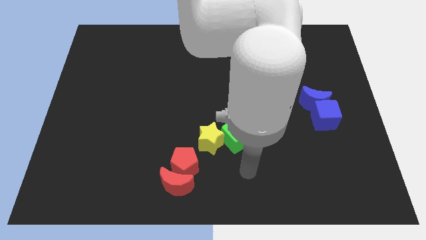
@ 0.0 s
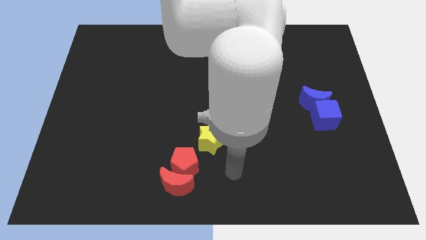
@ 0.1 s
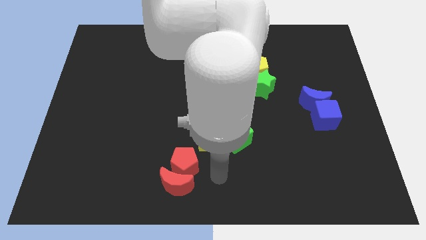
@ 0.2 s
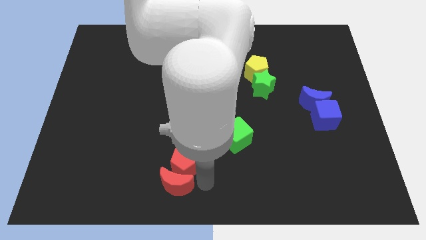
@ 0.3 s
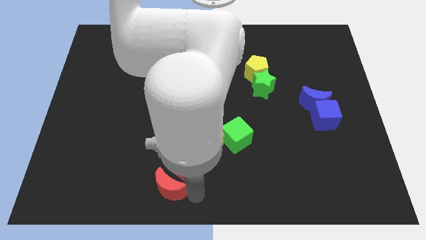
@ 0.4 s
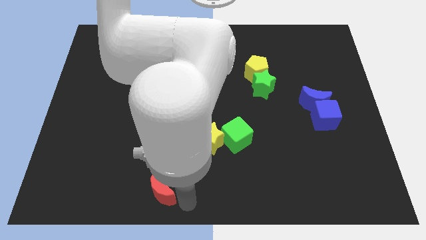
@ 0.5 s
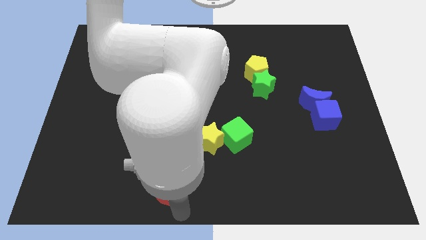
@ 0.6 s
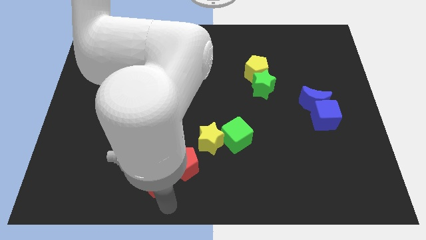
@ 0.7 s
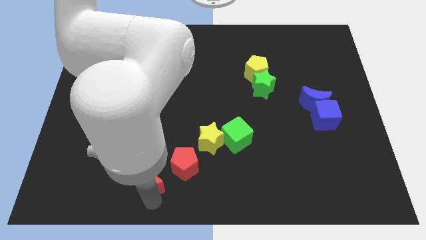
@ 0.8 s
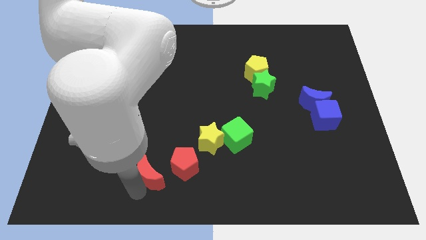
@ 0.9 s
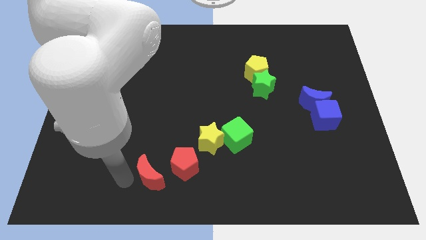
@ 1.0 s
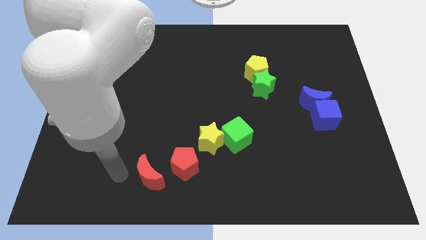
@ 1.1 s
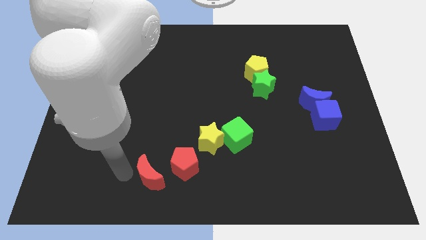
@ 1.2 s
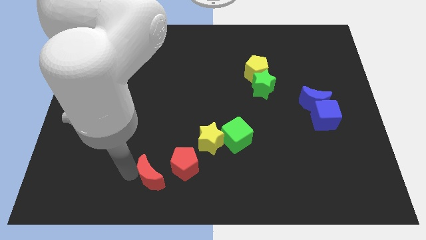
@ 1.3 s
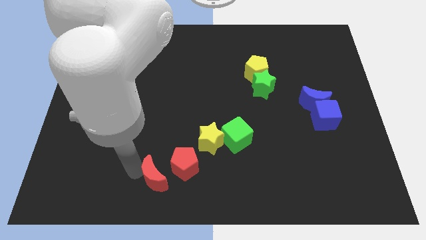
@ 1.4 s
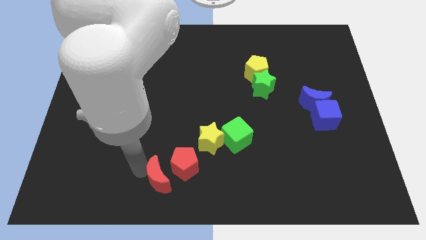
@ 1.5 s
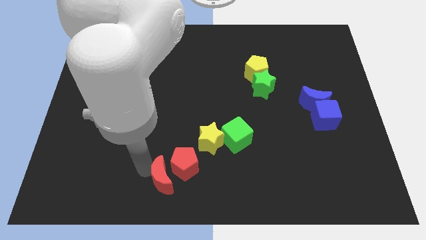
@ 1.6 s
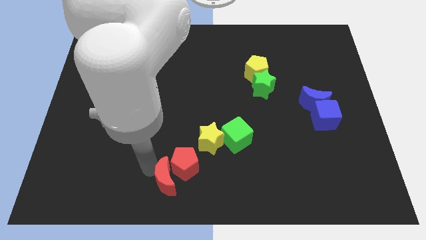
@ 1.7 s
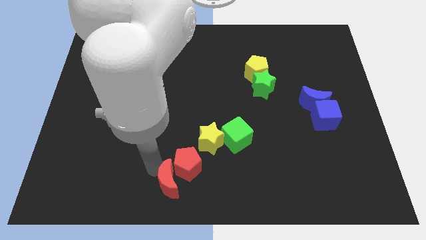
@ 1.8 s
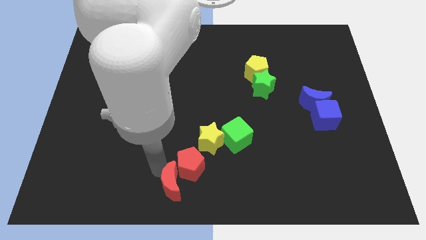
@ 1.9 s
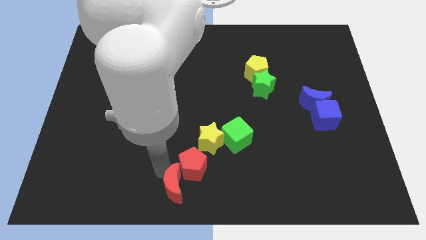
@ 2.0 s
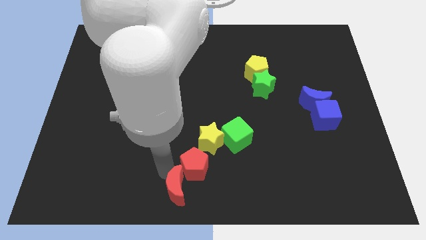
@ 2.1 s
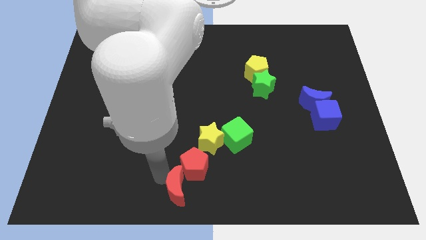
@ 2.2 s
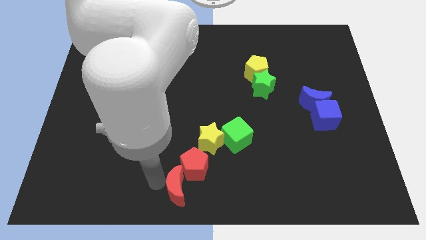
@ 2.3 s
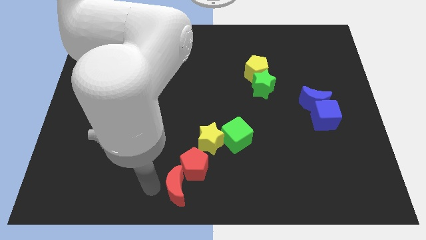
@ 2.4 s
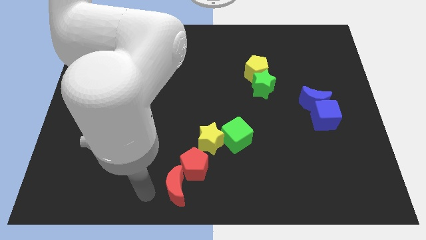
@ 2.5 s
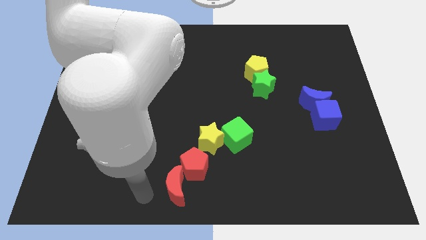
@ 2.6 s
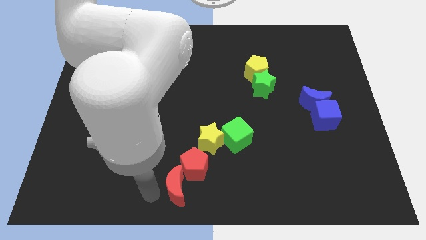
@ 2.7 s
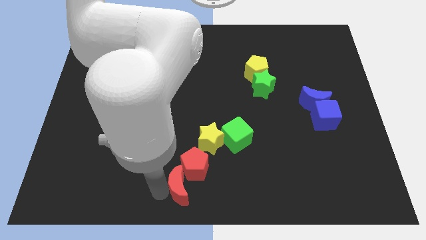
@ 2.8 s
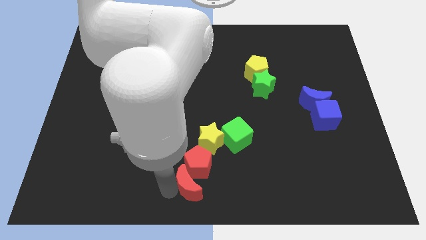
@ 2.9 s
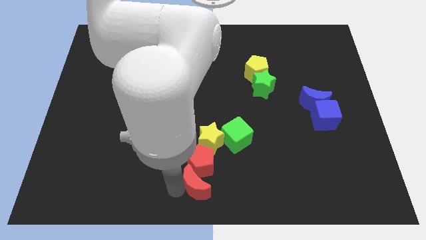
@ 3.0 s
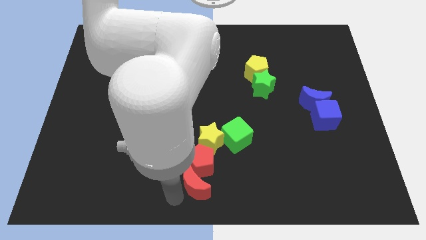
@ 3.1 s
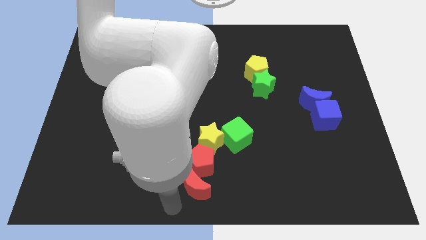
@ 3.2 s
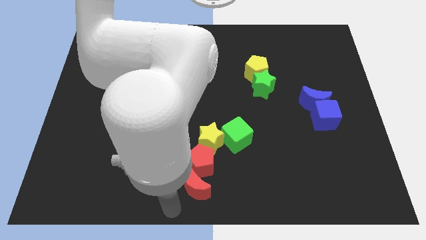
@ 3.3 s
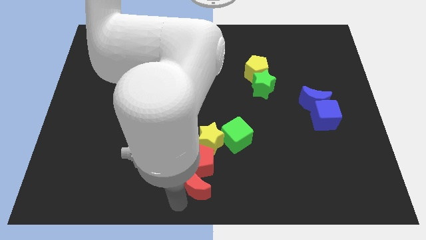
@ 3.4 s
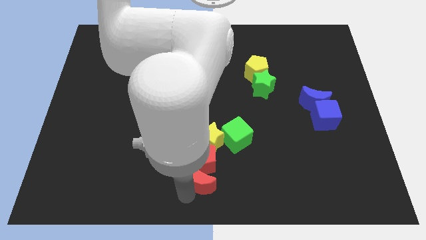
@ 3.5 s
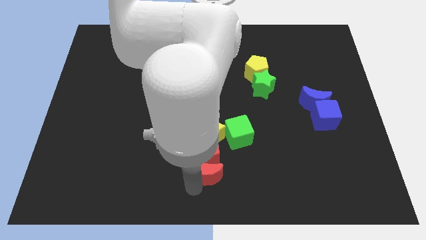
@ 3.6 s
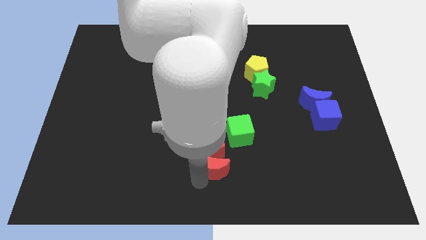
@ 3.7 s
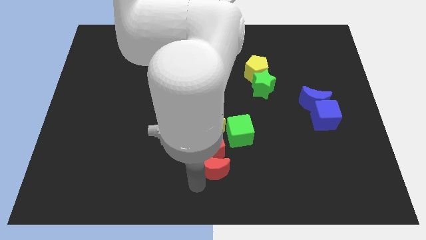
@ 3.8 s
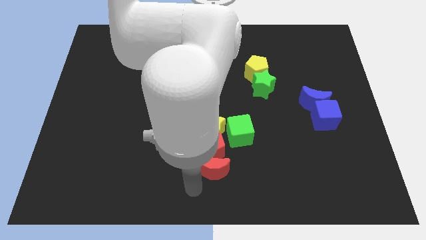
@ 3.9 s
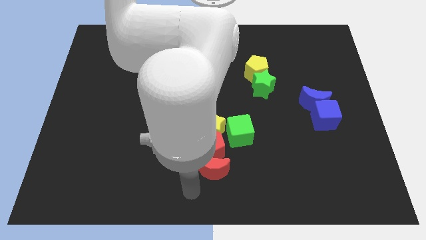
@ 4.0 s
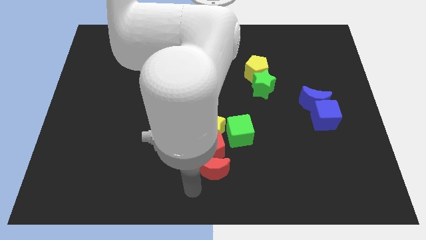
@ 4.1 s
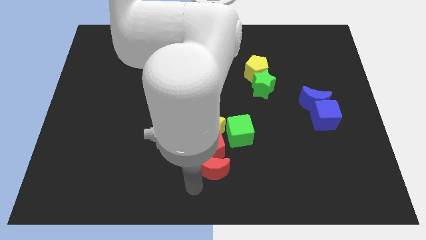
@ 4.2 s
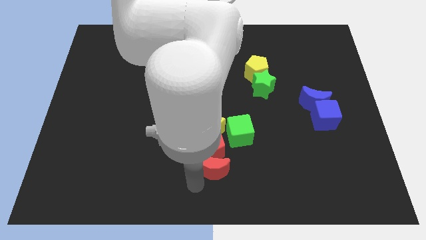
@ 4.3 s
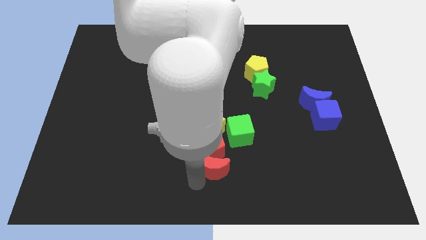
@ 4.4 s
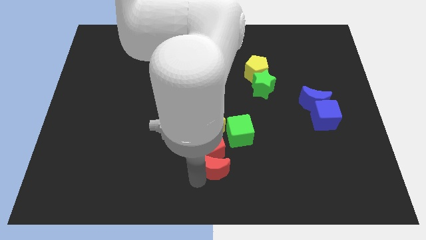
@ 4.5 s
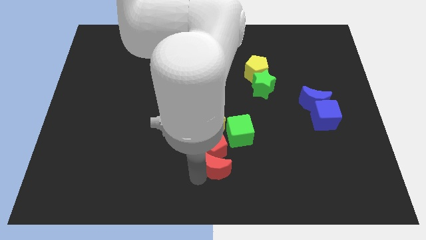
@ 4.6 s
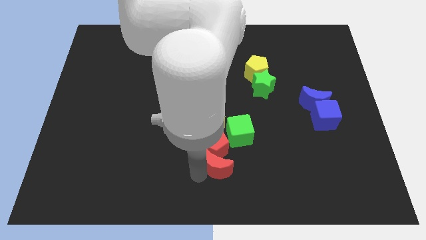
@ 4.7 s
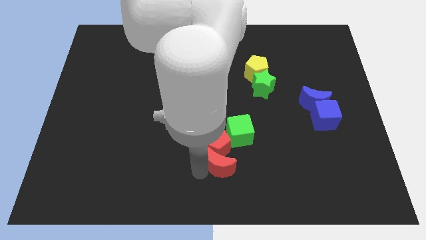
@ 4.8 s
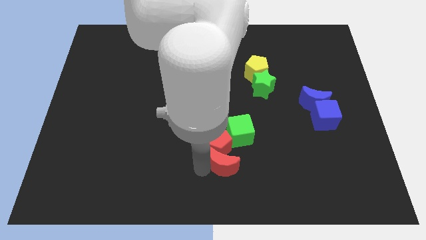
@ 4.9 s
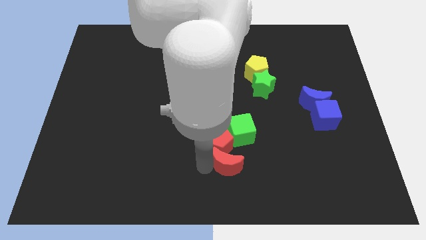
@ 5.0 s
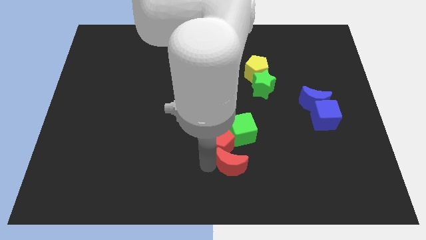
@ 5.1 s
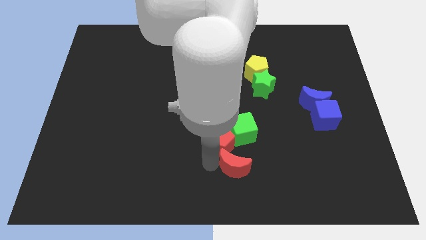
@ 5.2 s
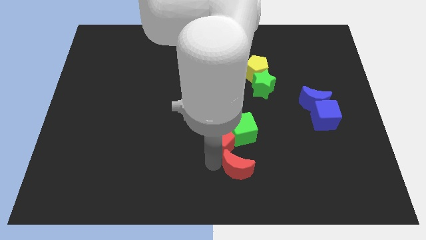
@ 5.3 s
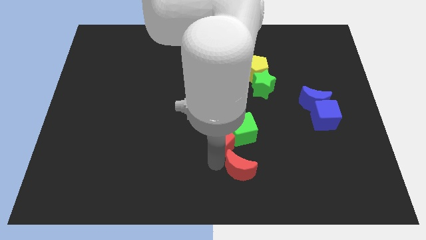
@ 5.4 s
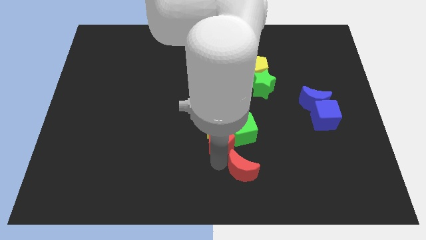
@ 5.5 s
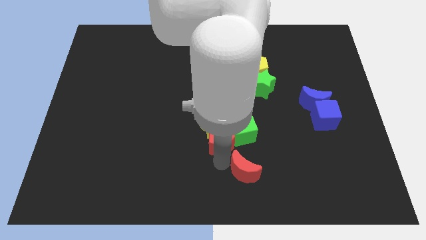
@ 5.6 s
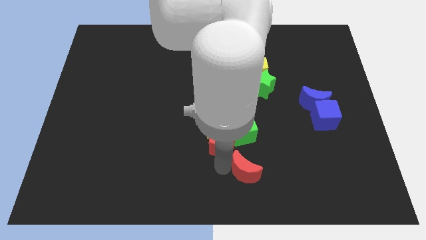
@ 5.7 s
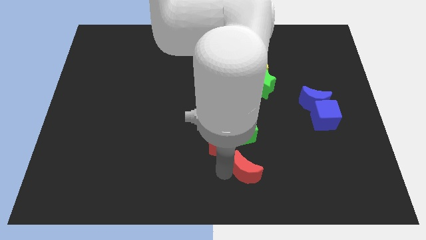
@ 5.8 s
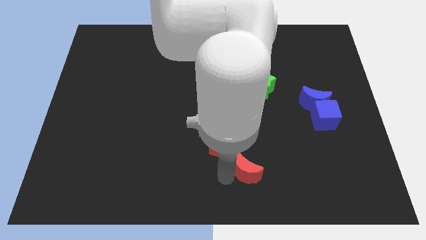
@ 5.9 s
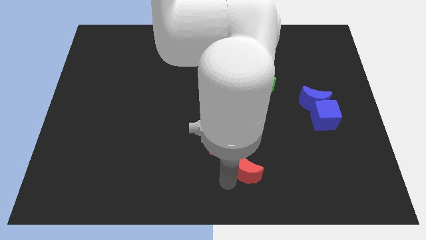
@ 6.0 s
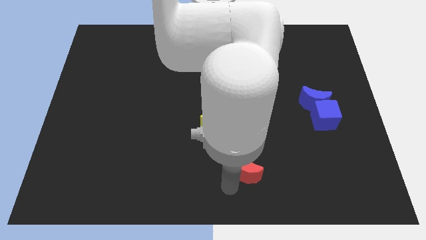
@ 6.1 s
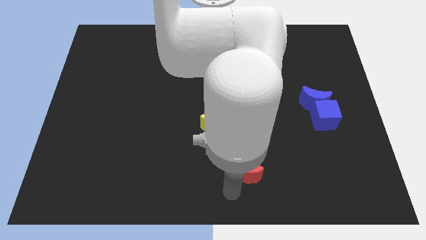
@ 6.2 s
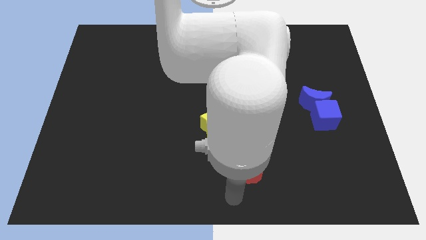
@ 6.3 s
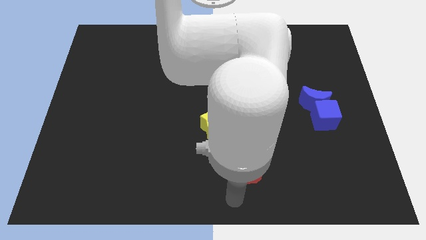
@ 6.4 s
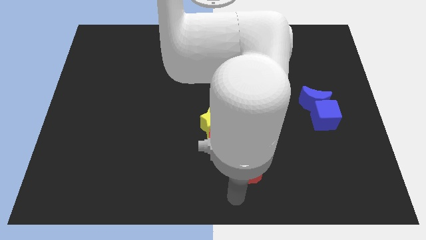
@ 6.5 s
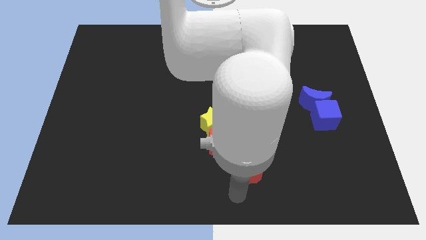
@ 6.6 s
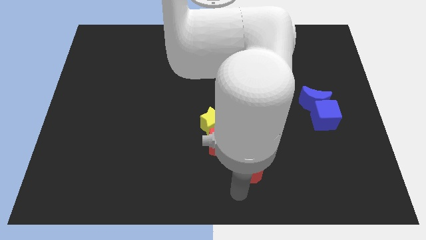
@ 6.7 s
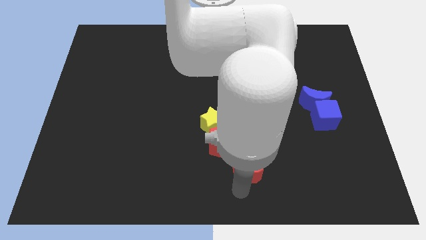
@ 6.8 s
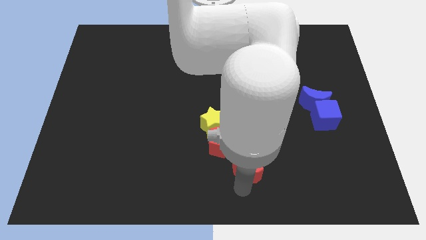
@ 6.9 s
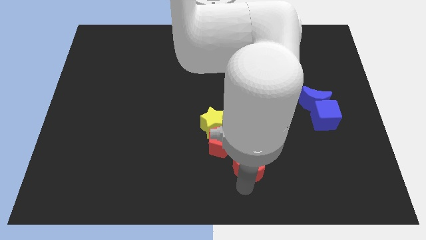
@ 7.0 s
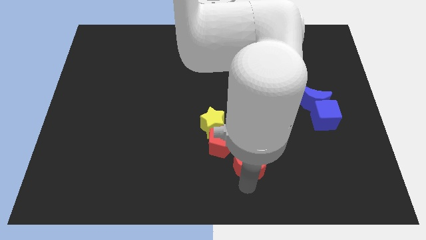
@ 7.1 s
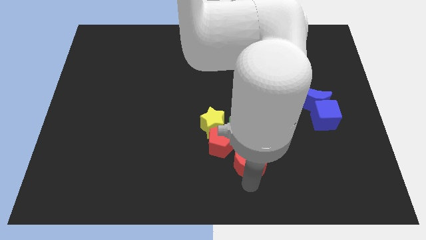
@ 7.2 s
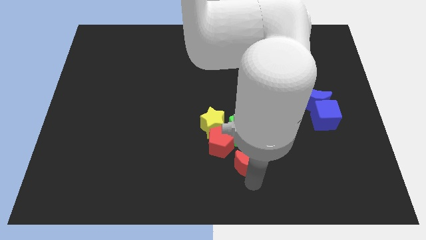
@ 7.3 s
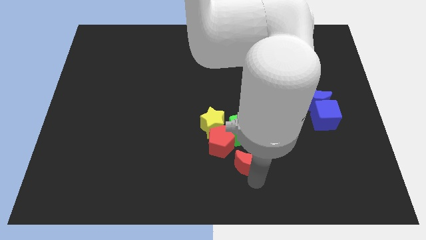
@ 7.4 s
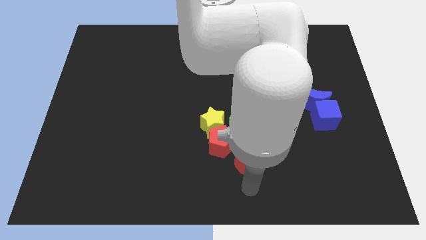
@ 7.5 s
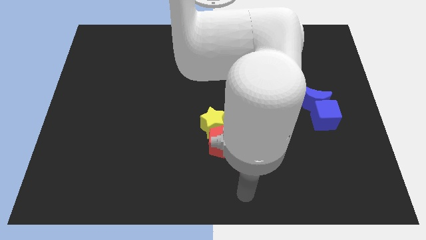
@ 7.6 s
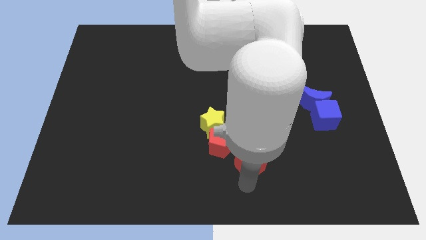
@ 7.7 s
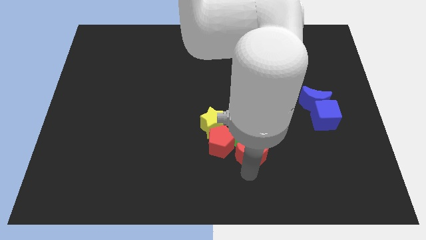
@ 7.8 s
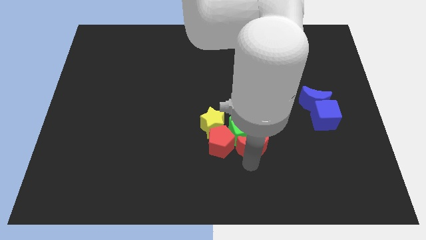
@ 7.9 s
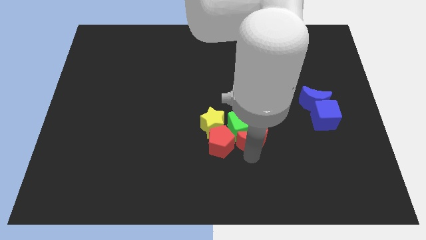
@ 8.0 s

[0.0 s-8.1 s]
move the red moon just right of the yellow star
